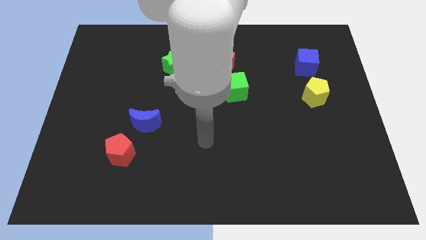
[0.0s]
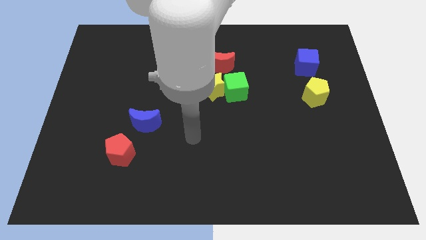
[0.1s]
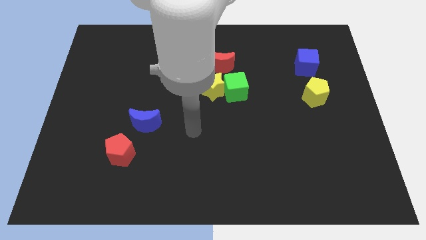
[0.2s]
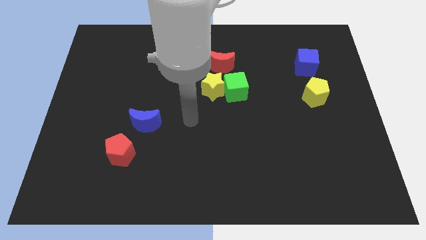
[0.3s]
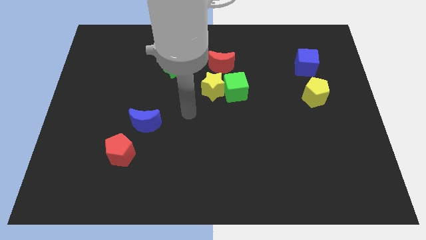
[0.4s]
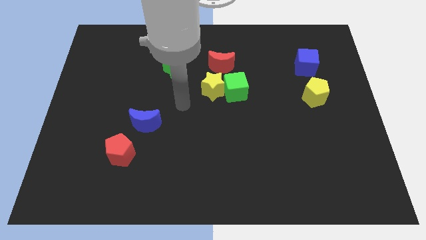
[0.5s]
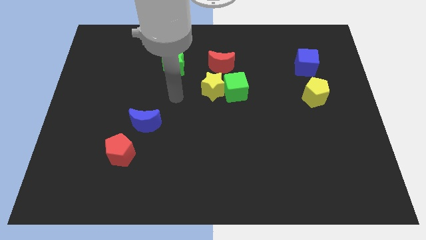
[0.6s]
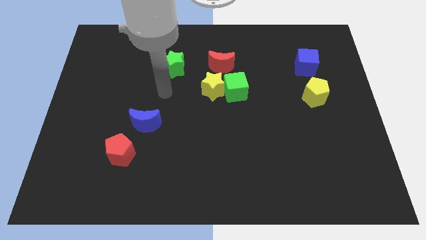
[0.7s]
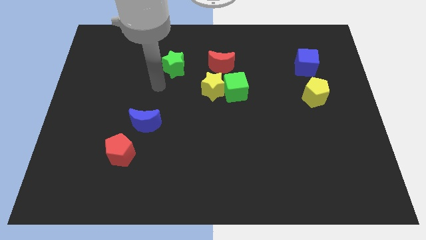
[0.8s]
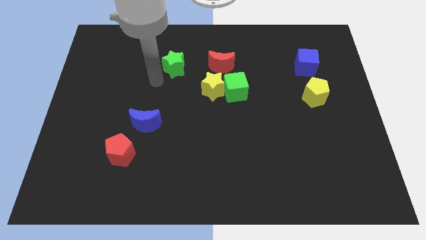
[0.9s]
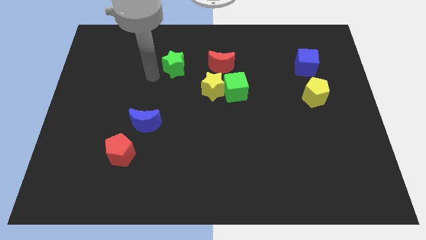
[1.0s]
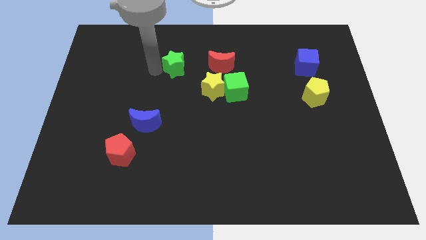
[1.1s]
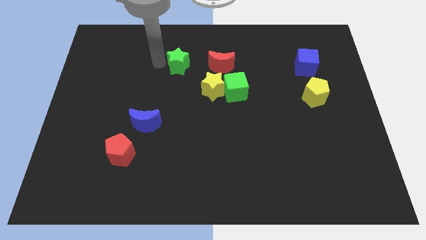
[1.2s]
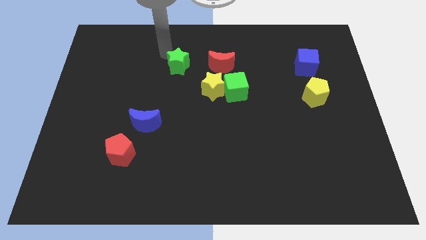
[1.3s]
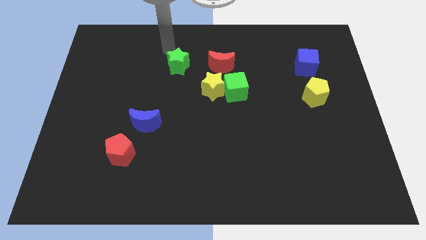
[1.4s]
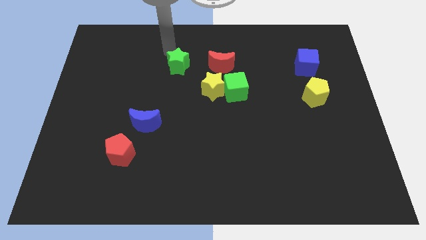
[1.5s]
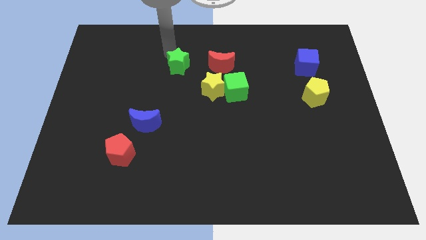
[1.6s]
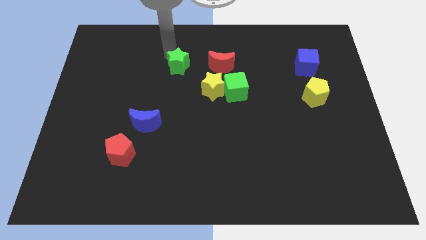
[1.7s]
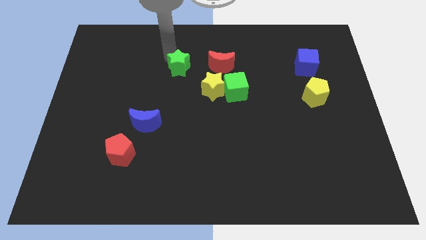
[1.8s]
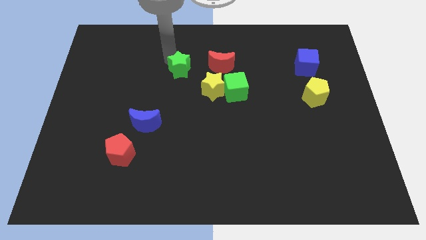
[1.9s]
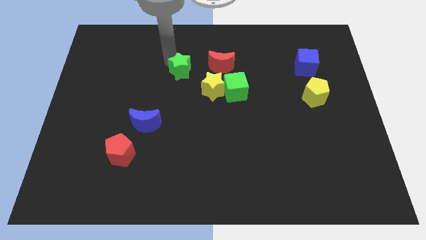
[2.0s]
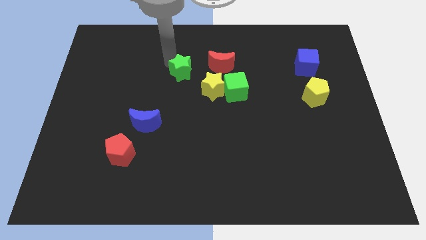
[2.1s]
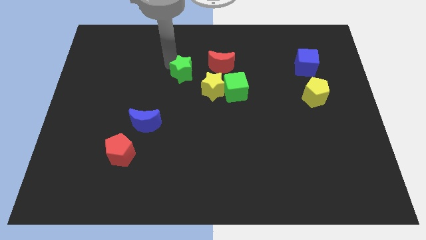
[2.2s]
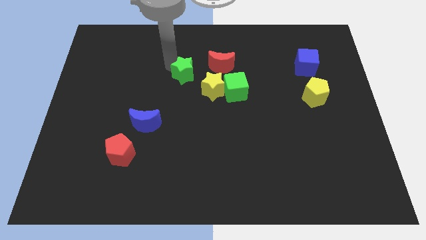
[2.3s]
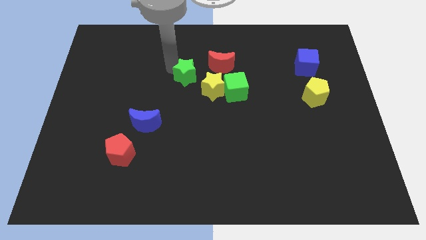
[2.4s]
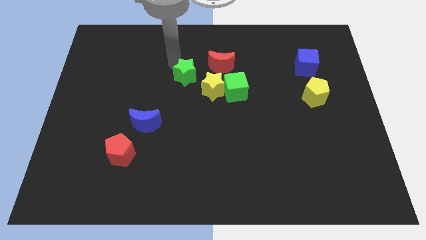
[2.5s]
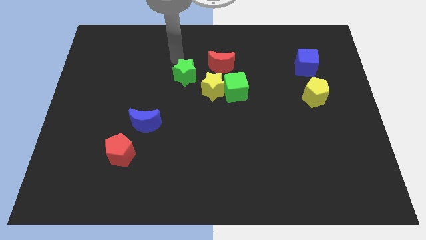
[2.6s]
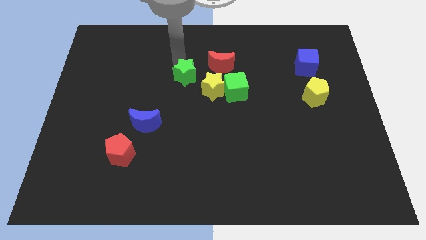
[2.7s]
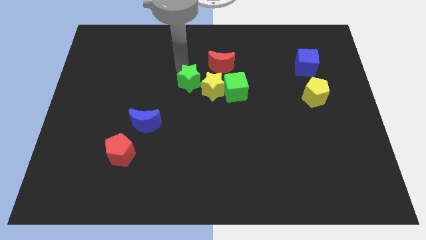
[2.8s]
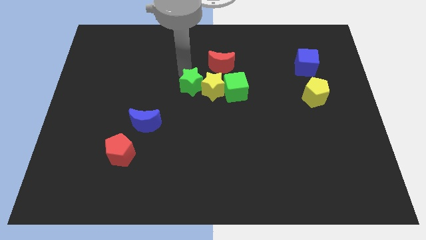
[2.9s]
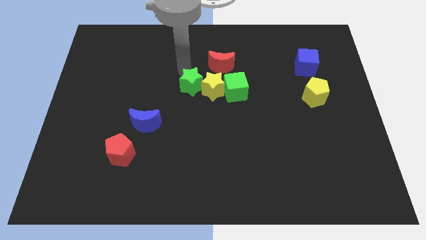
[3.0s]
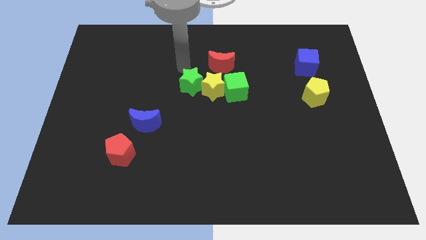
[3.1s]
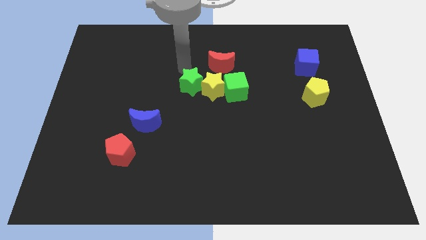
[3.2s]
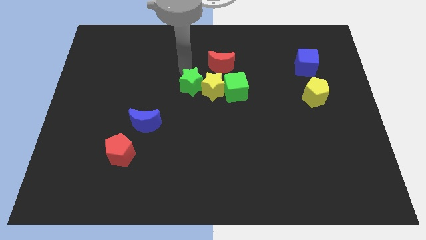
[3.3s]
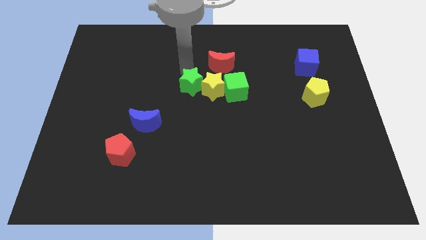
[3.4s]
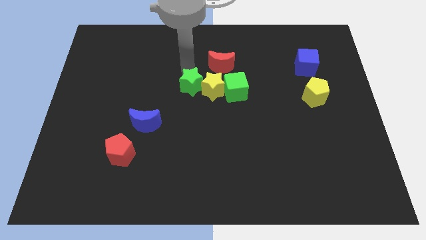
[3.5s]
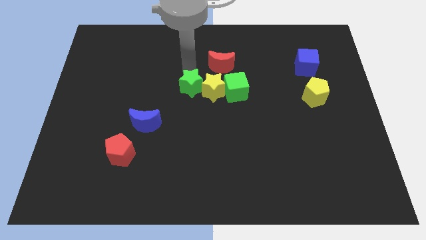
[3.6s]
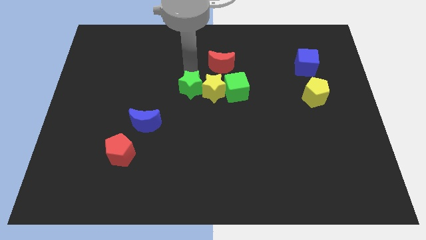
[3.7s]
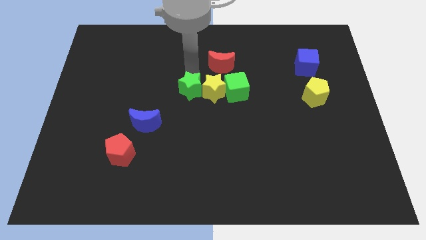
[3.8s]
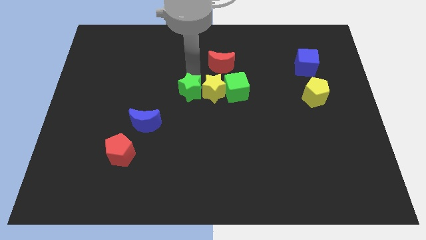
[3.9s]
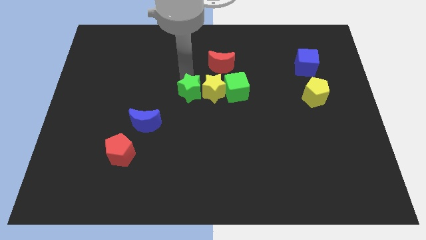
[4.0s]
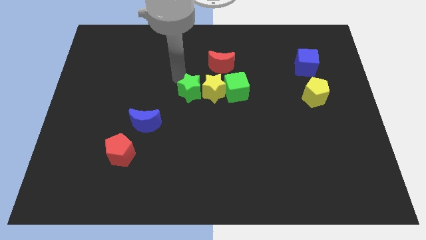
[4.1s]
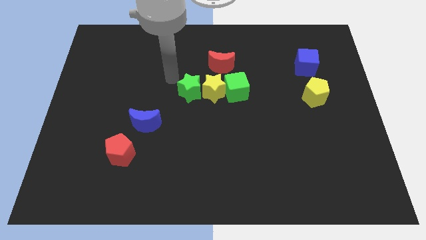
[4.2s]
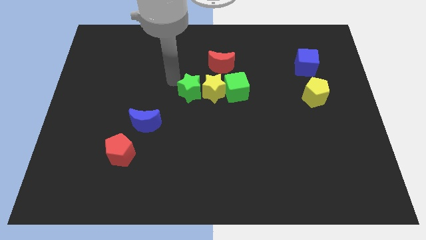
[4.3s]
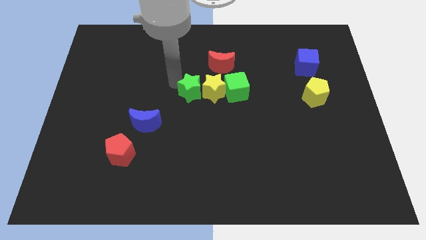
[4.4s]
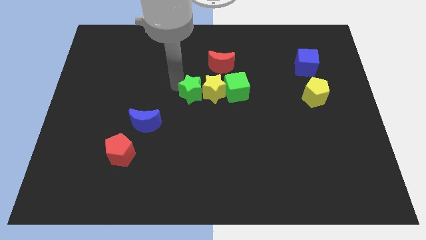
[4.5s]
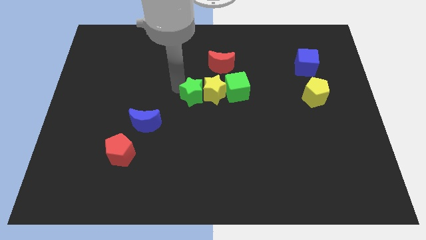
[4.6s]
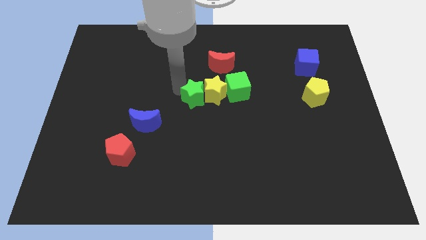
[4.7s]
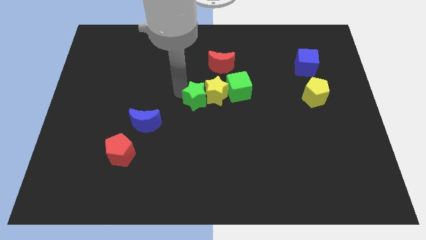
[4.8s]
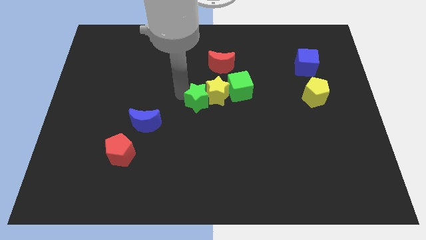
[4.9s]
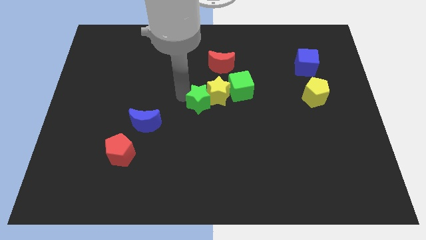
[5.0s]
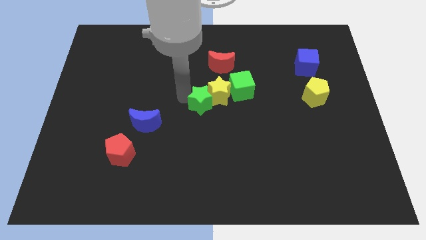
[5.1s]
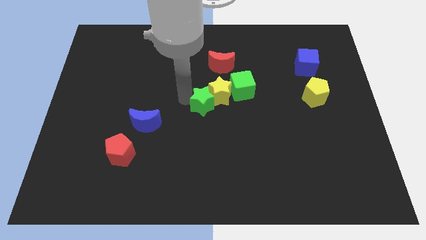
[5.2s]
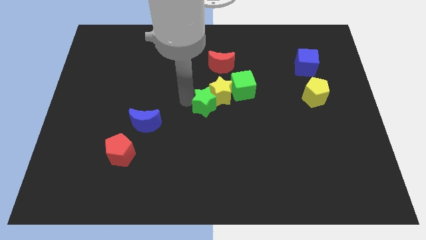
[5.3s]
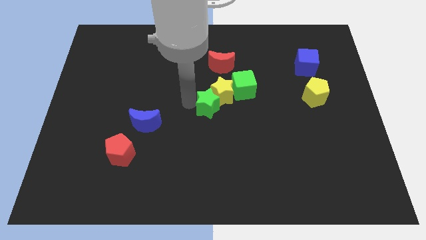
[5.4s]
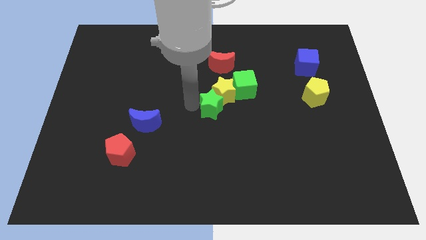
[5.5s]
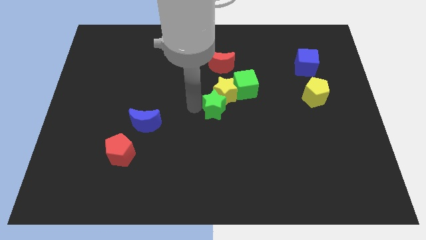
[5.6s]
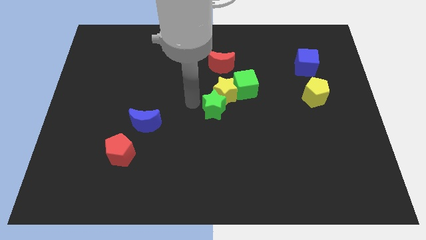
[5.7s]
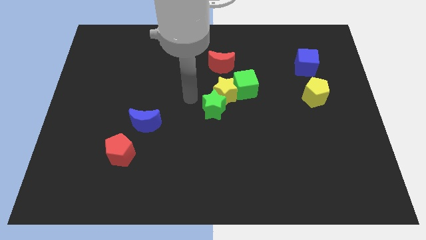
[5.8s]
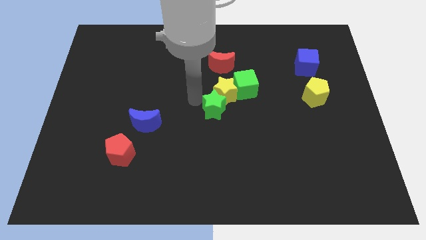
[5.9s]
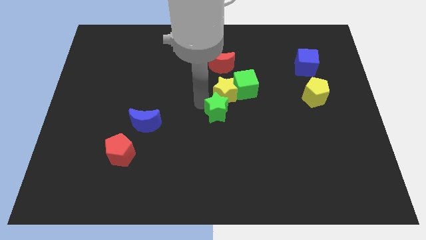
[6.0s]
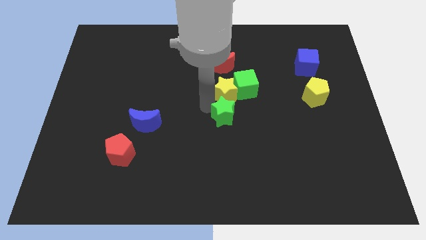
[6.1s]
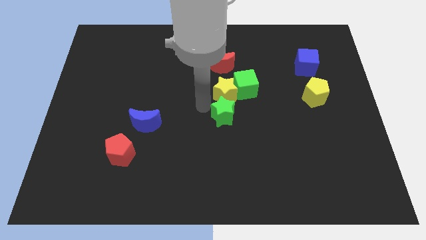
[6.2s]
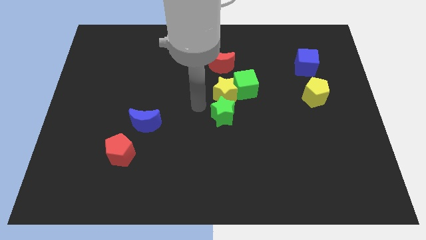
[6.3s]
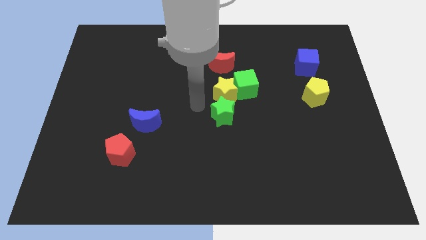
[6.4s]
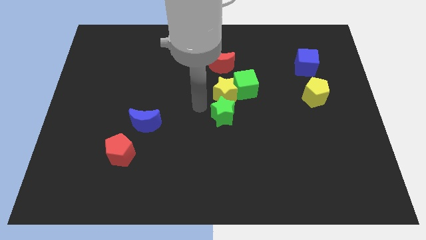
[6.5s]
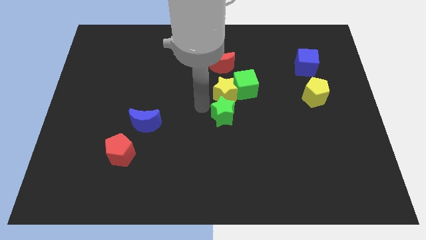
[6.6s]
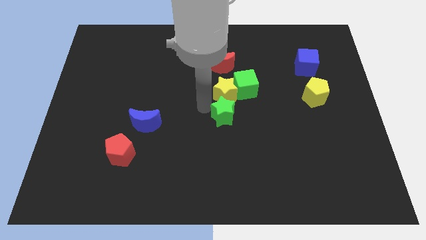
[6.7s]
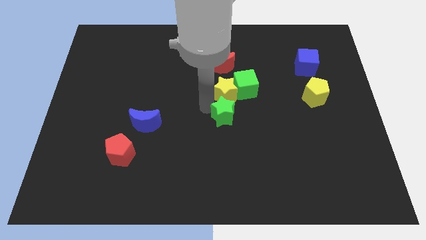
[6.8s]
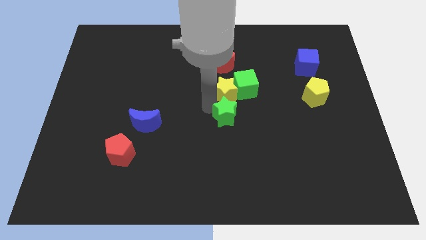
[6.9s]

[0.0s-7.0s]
slide the green star down and then right

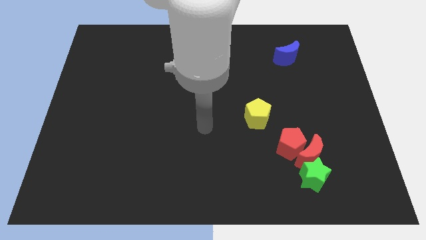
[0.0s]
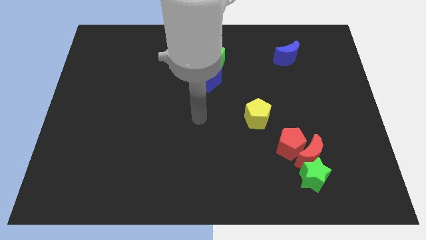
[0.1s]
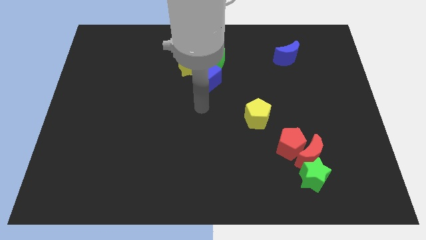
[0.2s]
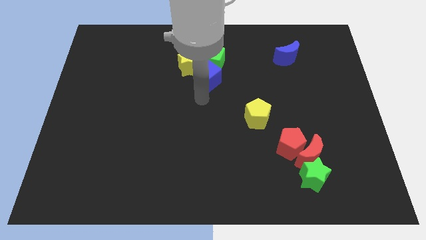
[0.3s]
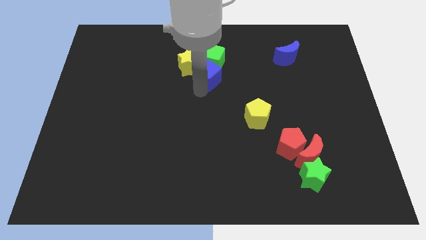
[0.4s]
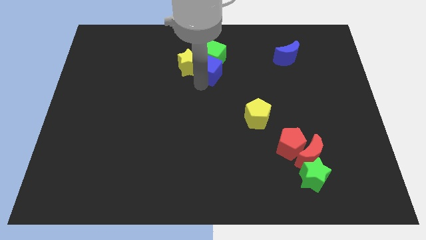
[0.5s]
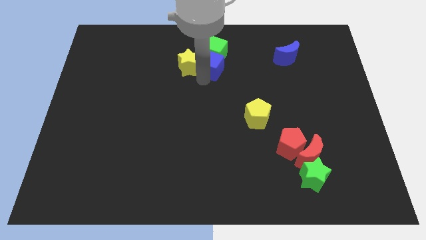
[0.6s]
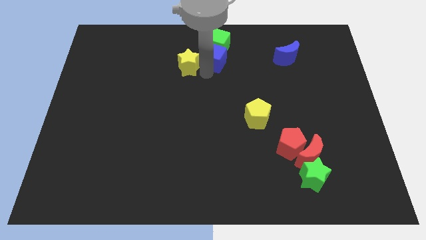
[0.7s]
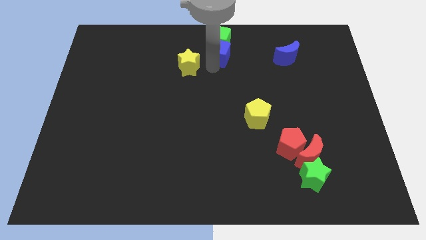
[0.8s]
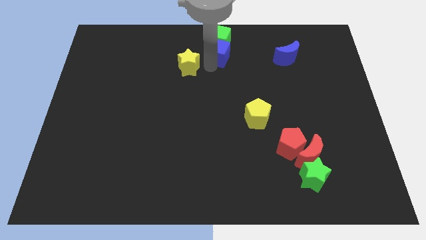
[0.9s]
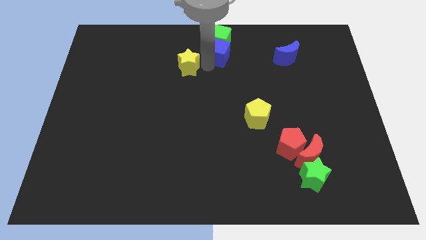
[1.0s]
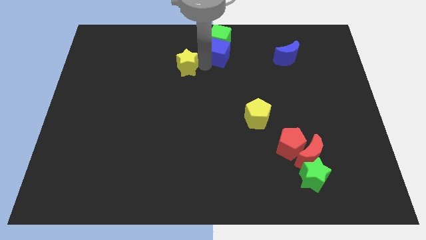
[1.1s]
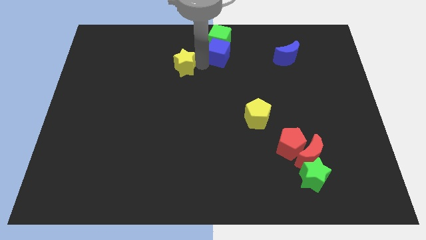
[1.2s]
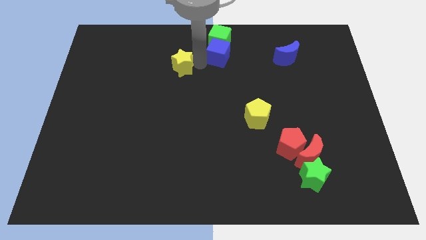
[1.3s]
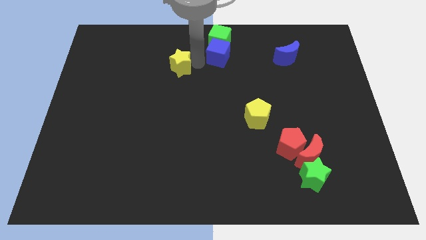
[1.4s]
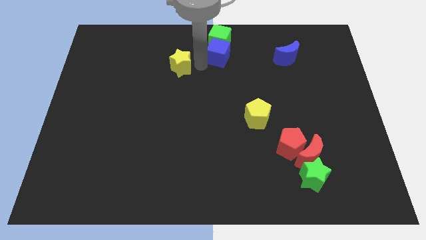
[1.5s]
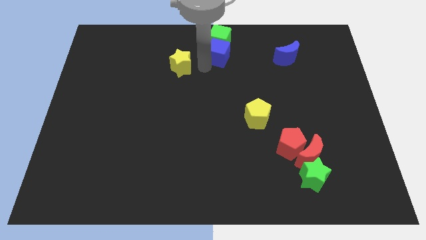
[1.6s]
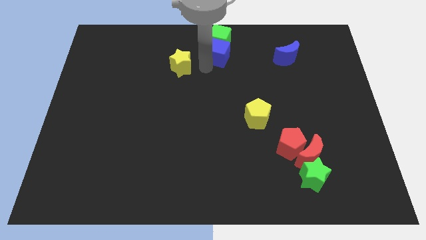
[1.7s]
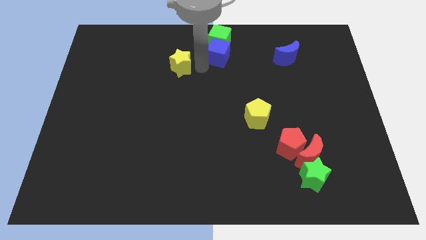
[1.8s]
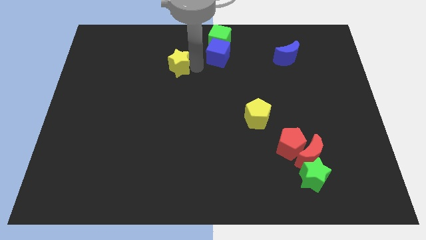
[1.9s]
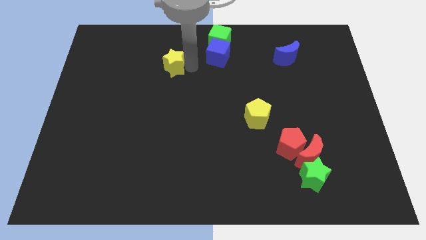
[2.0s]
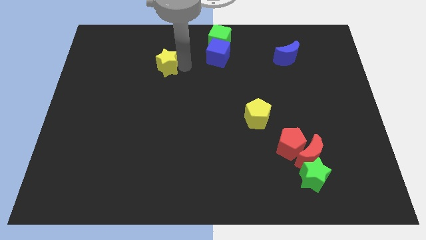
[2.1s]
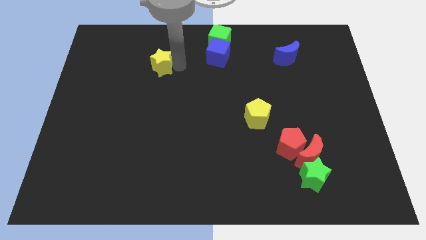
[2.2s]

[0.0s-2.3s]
slightly move the yellow star to the left
